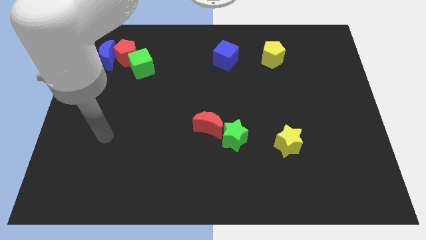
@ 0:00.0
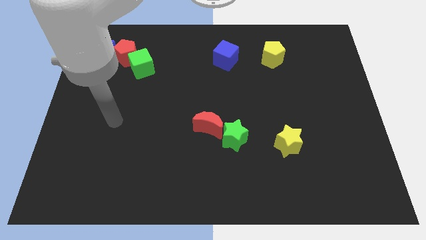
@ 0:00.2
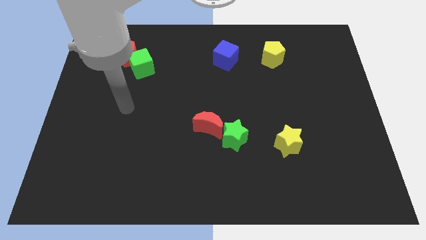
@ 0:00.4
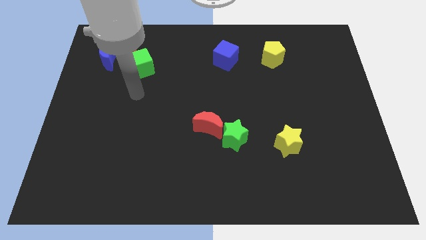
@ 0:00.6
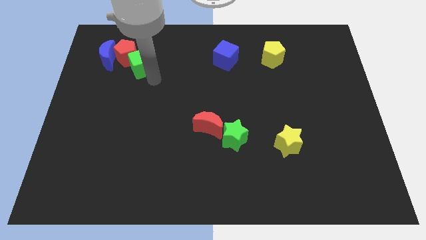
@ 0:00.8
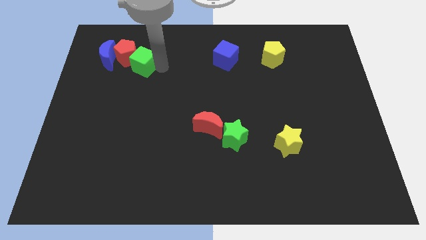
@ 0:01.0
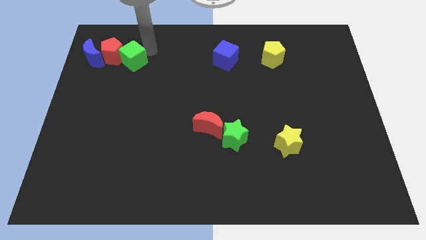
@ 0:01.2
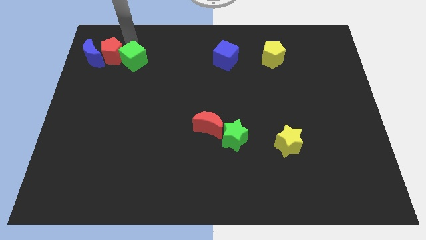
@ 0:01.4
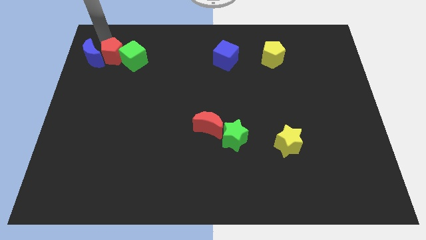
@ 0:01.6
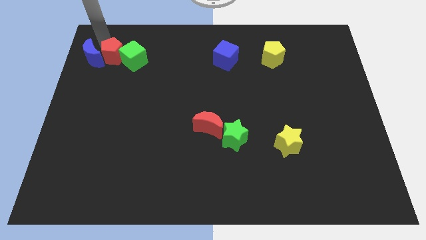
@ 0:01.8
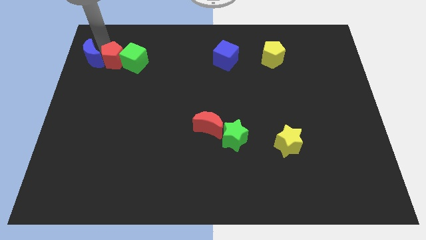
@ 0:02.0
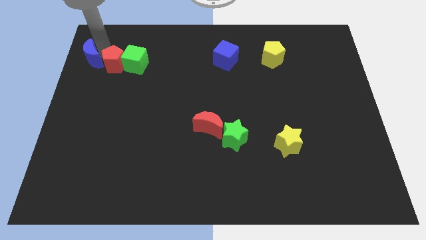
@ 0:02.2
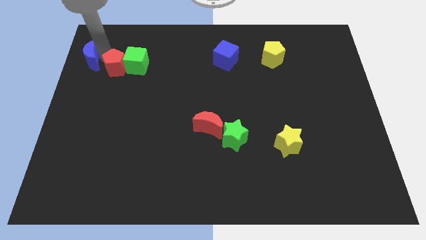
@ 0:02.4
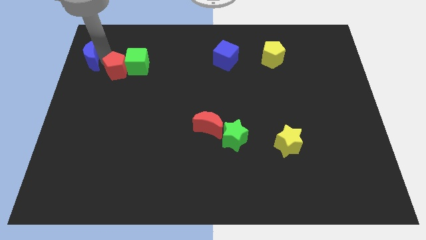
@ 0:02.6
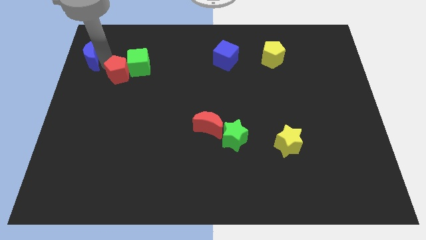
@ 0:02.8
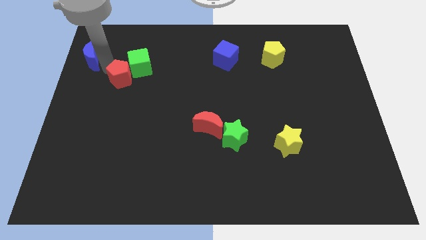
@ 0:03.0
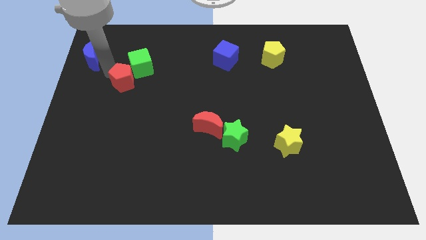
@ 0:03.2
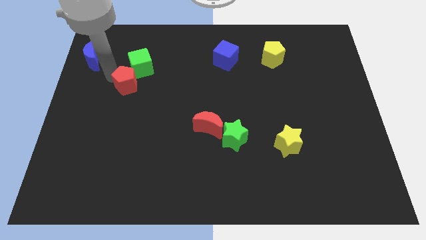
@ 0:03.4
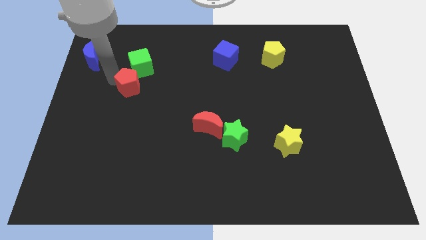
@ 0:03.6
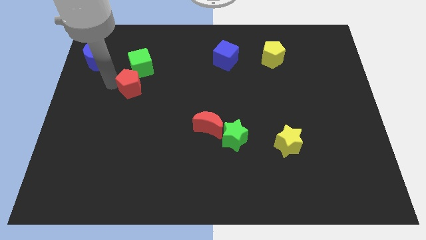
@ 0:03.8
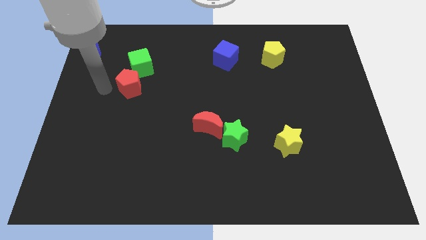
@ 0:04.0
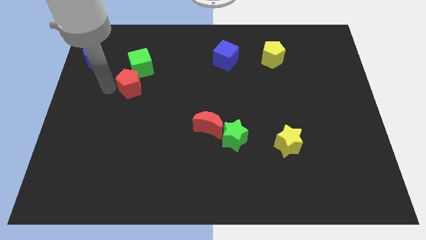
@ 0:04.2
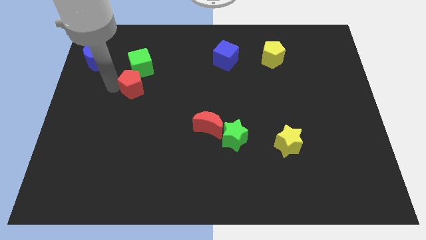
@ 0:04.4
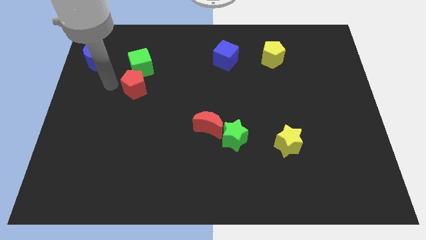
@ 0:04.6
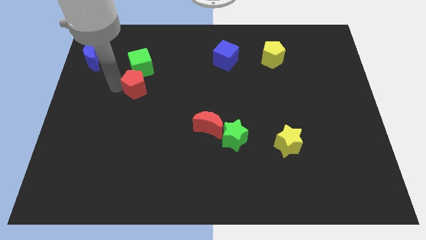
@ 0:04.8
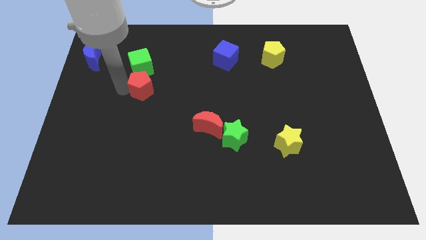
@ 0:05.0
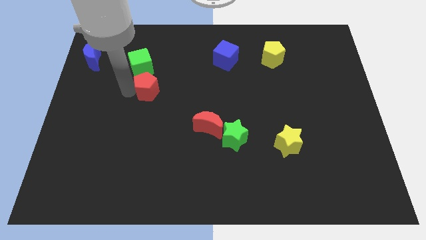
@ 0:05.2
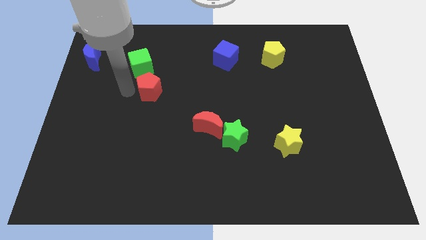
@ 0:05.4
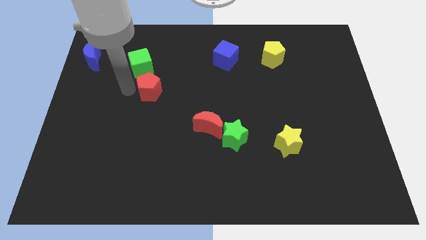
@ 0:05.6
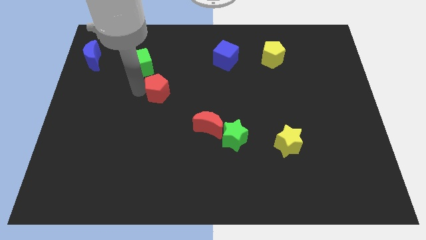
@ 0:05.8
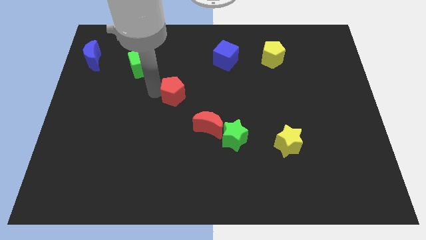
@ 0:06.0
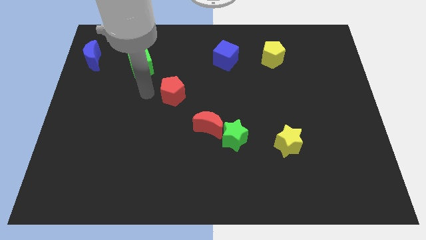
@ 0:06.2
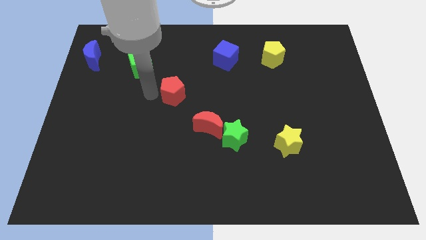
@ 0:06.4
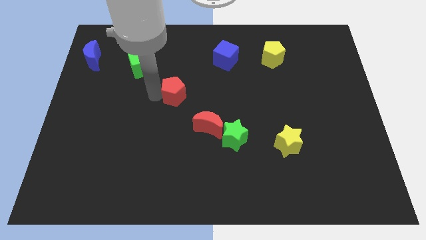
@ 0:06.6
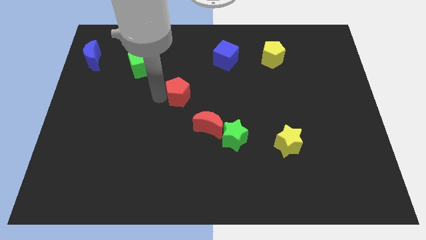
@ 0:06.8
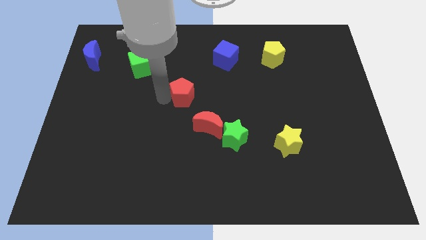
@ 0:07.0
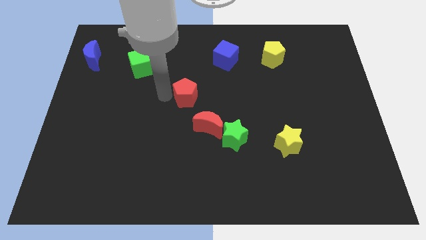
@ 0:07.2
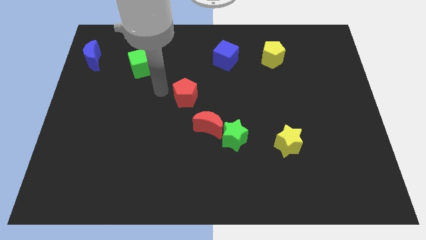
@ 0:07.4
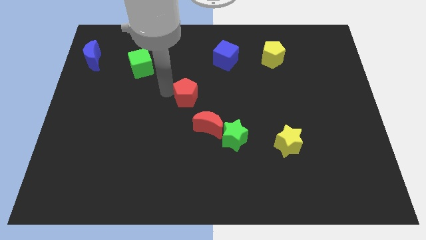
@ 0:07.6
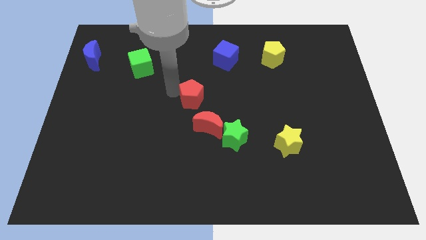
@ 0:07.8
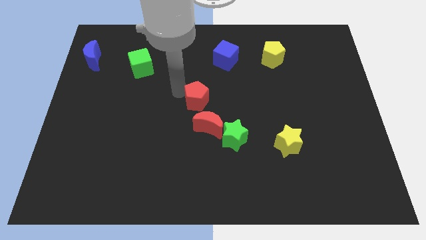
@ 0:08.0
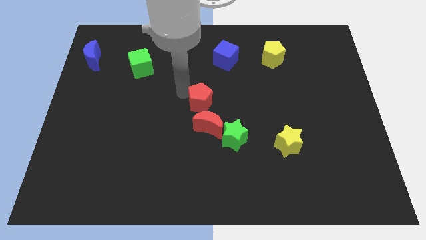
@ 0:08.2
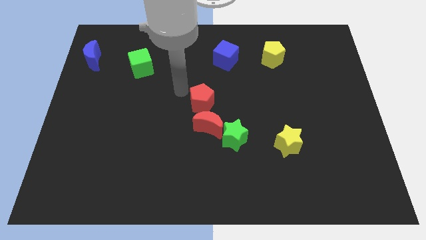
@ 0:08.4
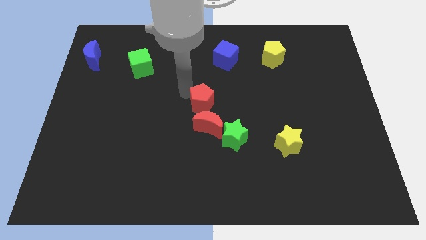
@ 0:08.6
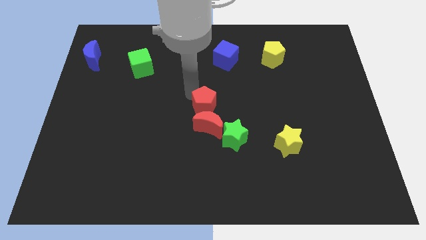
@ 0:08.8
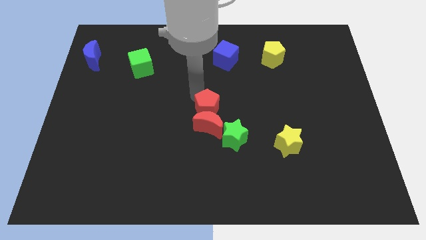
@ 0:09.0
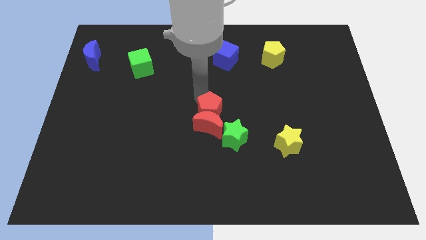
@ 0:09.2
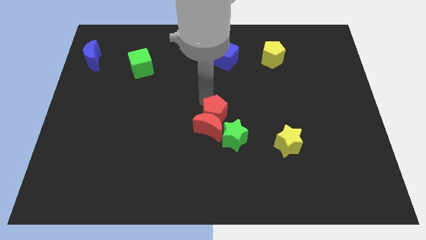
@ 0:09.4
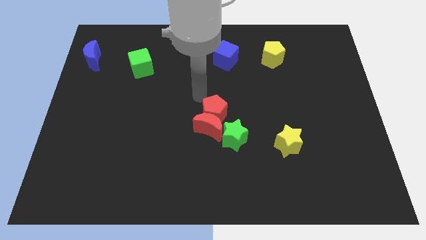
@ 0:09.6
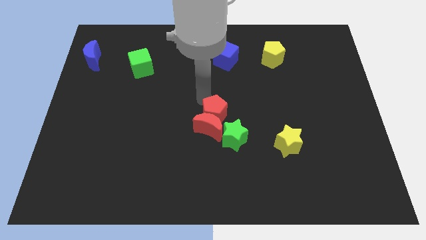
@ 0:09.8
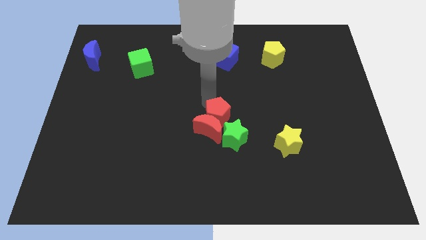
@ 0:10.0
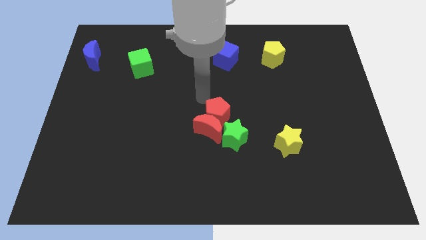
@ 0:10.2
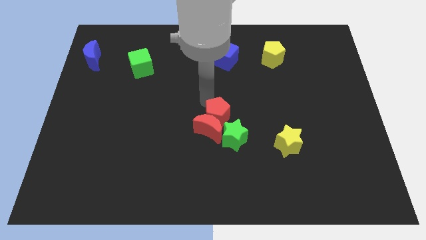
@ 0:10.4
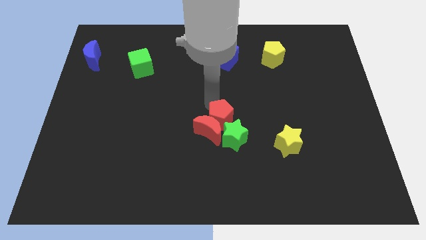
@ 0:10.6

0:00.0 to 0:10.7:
push the red pentagon close to the green star

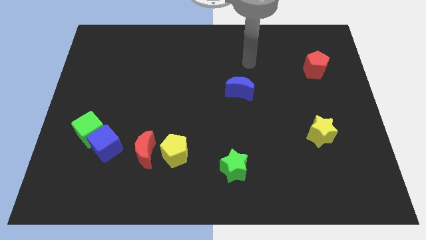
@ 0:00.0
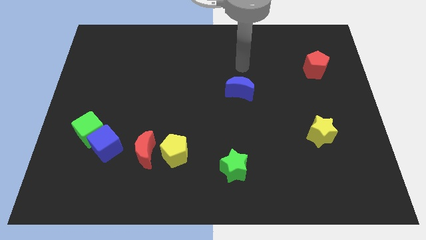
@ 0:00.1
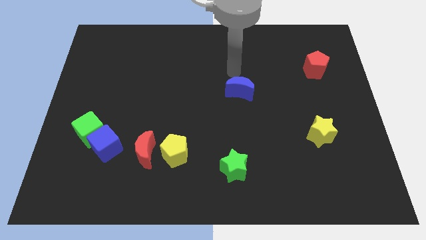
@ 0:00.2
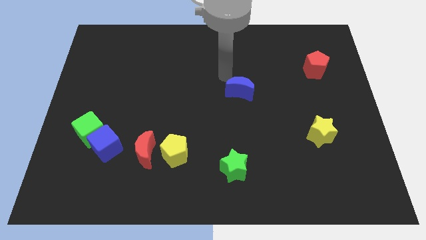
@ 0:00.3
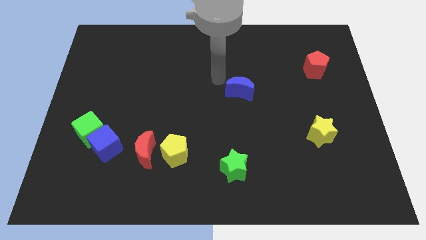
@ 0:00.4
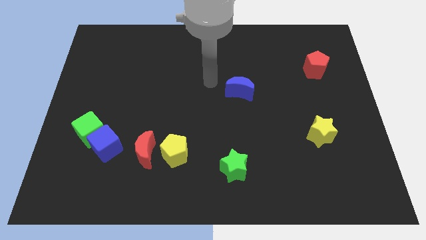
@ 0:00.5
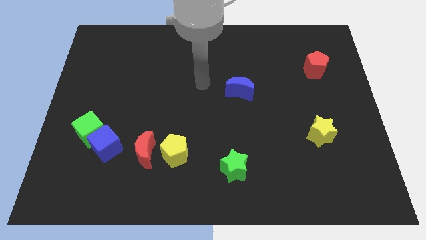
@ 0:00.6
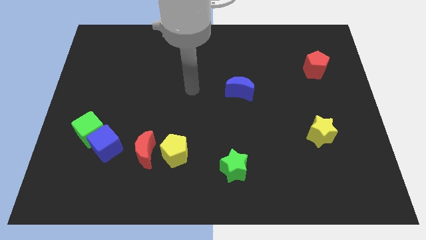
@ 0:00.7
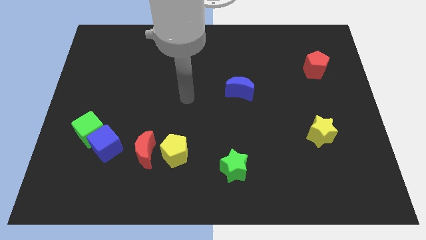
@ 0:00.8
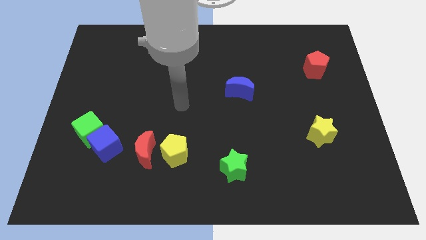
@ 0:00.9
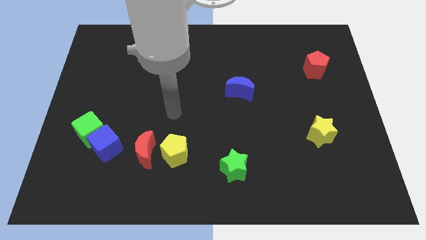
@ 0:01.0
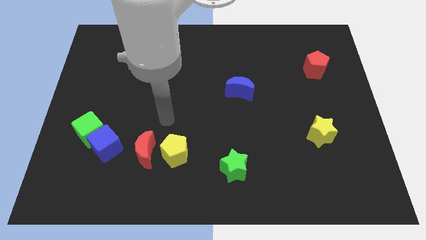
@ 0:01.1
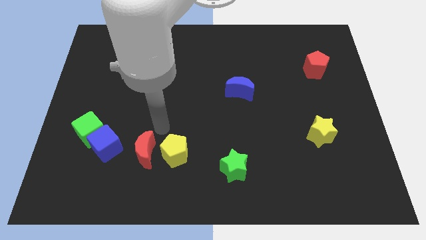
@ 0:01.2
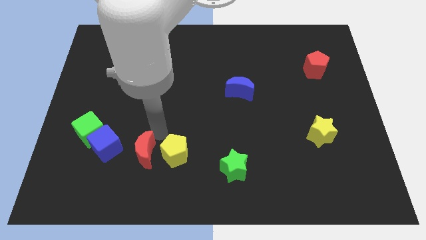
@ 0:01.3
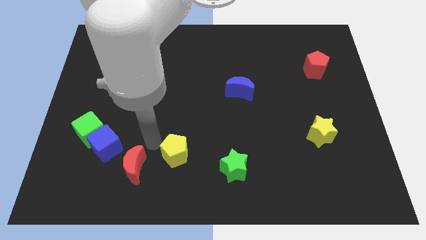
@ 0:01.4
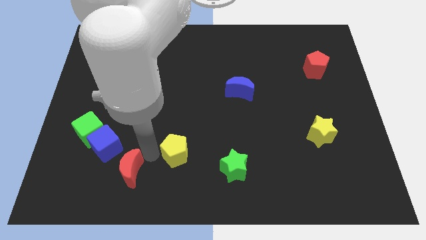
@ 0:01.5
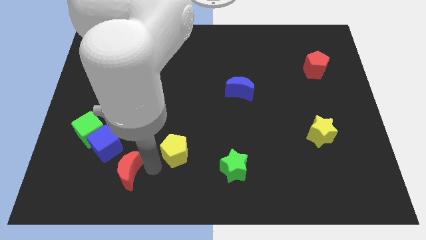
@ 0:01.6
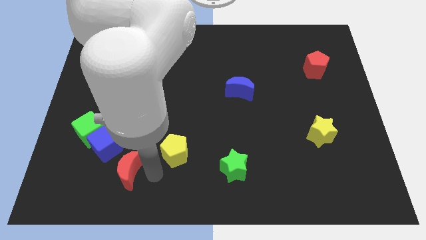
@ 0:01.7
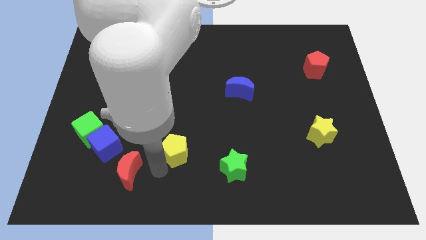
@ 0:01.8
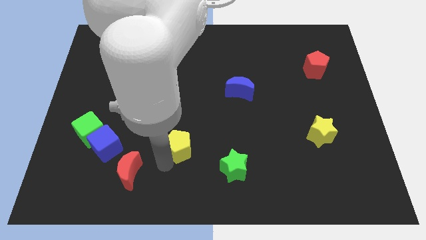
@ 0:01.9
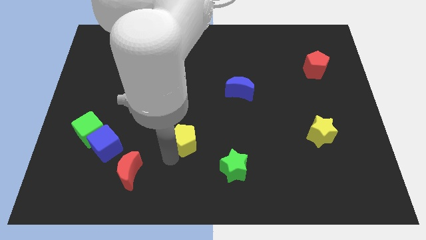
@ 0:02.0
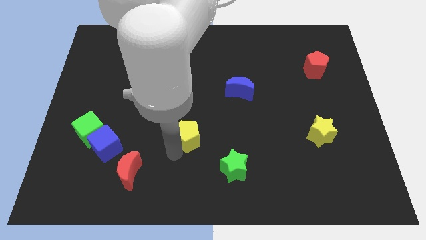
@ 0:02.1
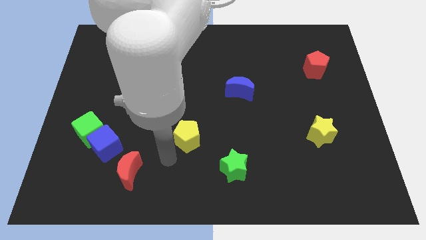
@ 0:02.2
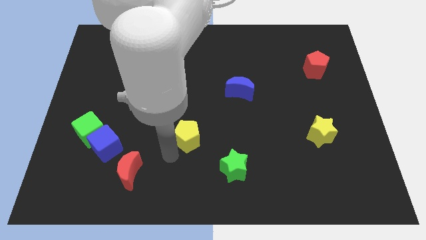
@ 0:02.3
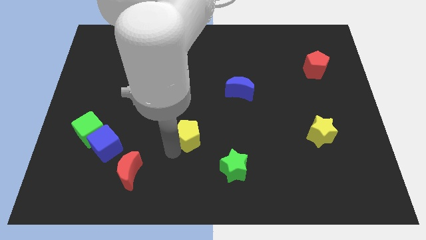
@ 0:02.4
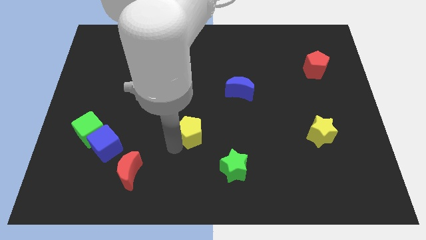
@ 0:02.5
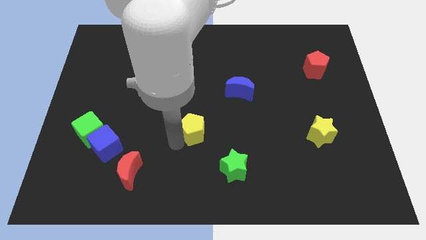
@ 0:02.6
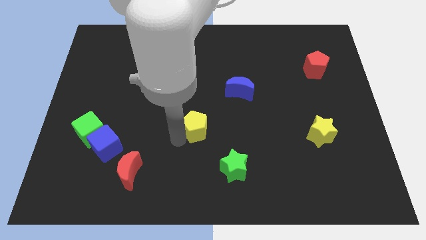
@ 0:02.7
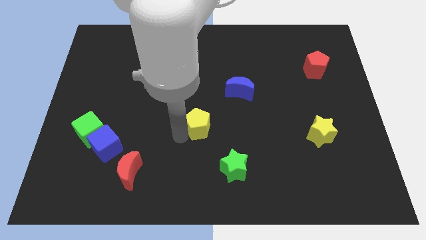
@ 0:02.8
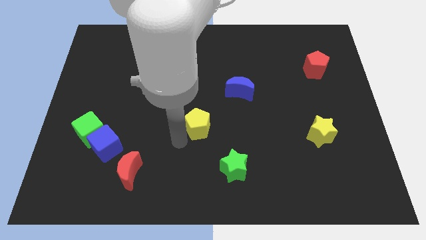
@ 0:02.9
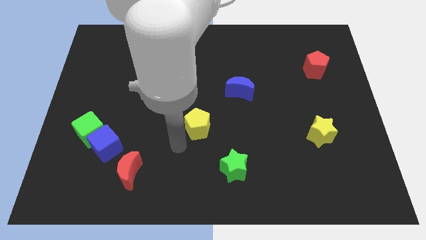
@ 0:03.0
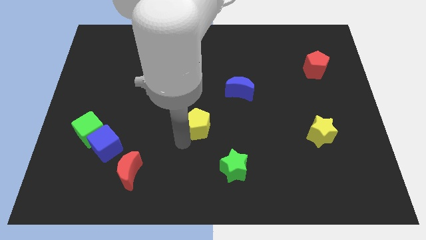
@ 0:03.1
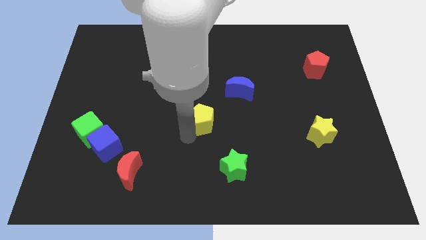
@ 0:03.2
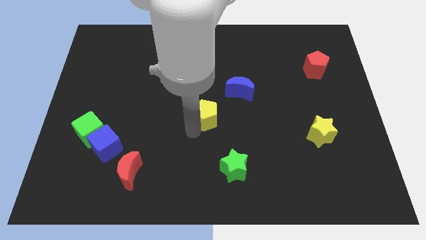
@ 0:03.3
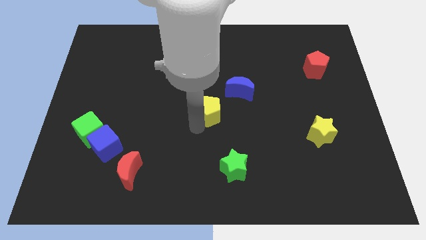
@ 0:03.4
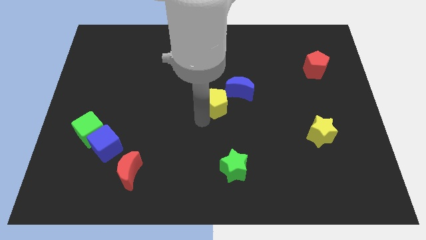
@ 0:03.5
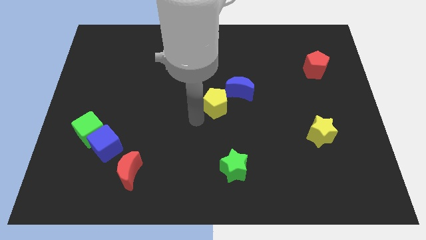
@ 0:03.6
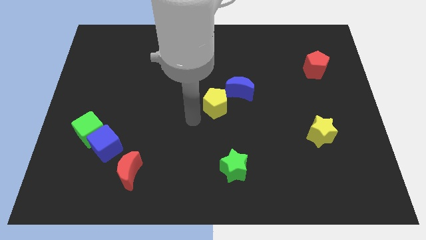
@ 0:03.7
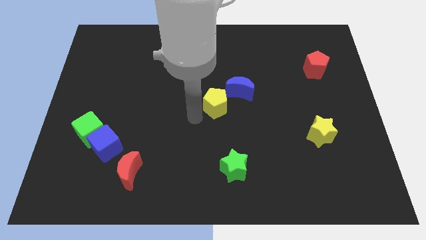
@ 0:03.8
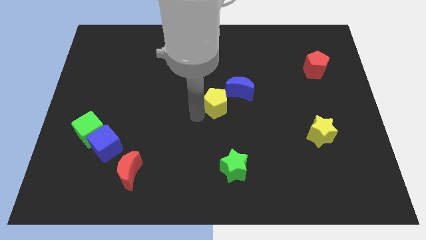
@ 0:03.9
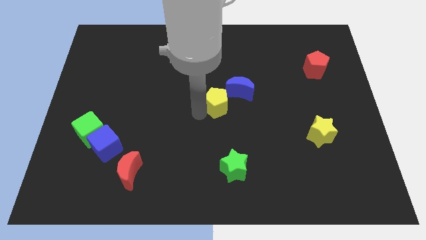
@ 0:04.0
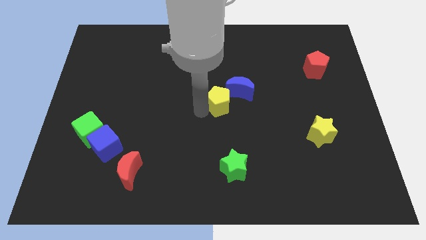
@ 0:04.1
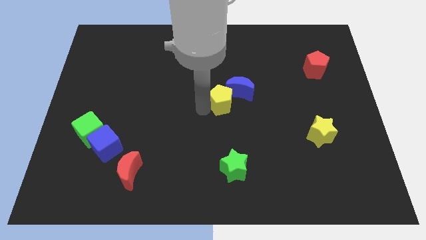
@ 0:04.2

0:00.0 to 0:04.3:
move the yellow pentagon close to the blue moon
